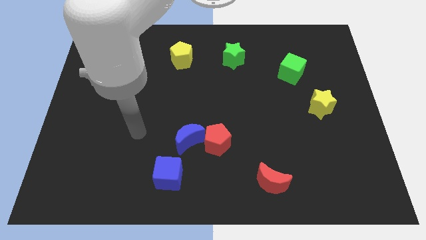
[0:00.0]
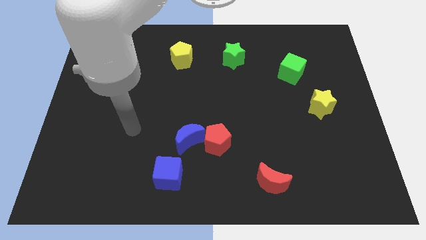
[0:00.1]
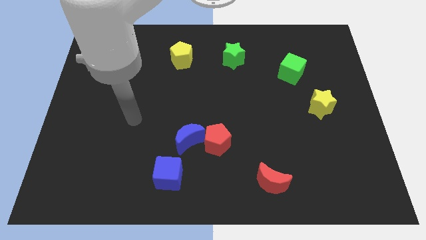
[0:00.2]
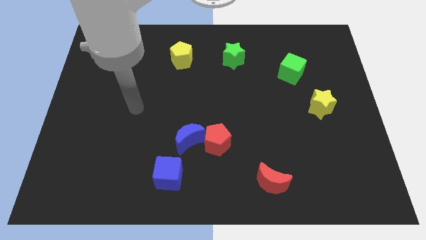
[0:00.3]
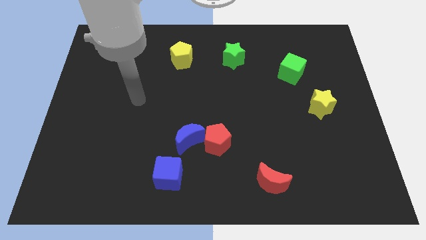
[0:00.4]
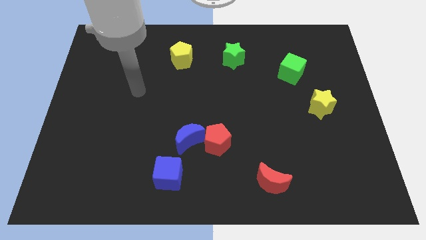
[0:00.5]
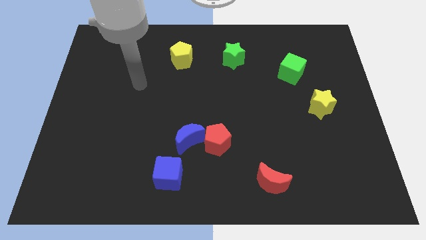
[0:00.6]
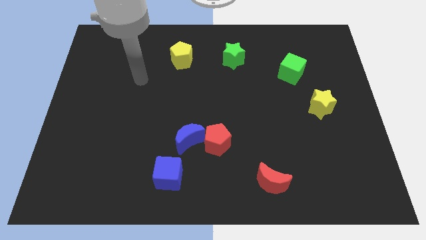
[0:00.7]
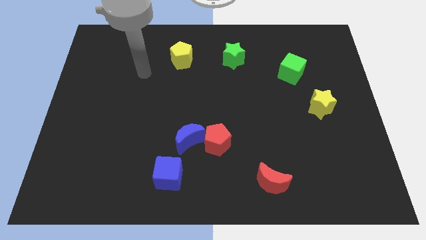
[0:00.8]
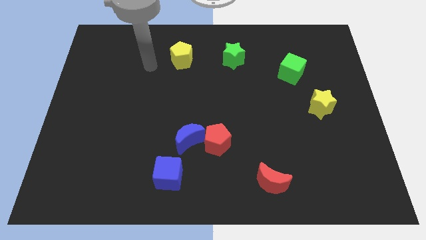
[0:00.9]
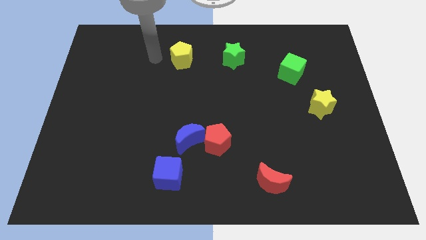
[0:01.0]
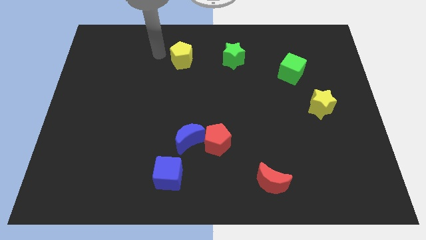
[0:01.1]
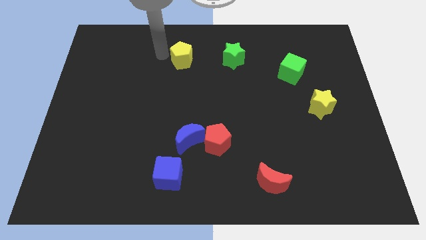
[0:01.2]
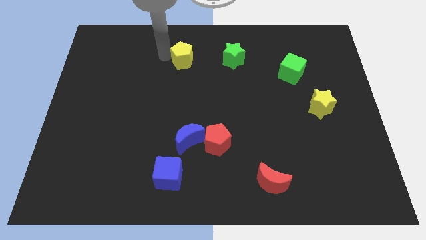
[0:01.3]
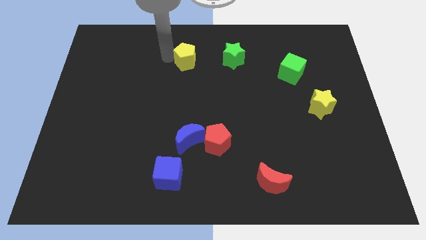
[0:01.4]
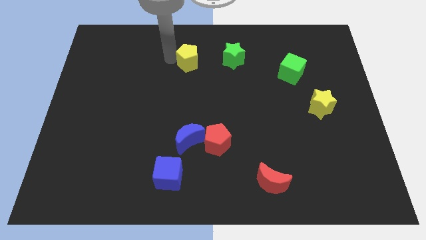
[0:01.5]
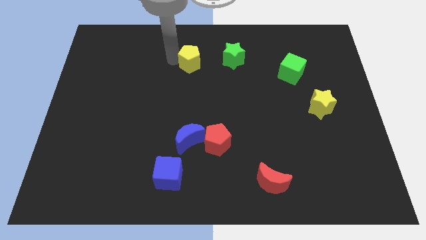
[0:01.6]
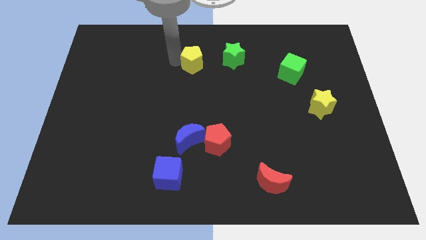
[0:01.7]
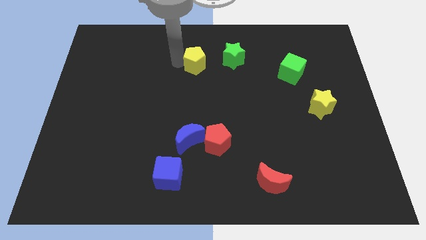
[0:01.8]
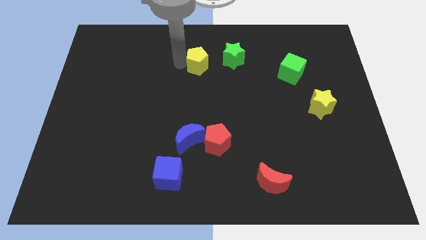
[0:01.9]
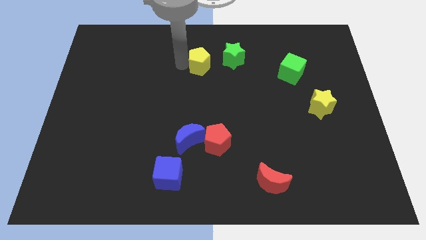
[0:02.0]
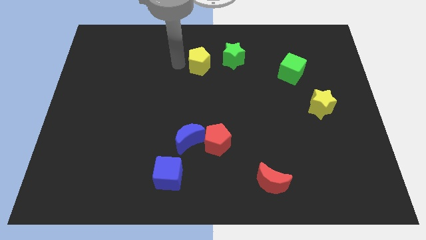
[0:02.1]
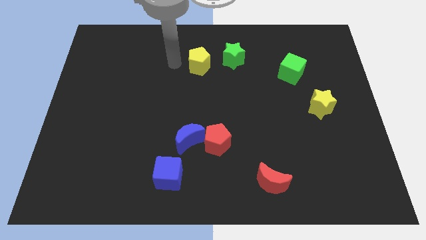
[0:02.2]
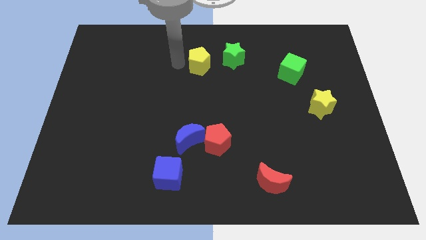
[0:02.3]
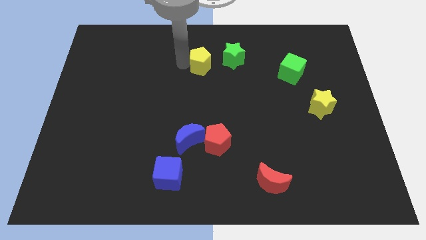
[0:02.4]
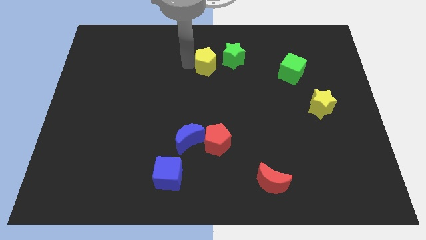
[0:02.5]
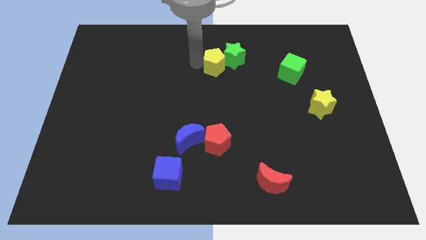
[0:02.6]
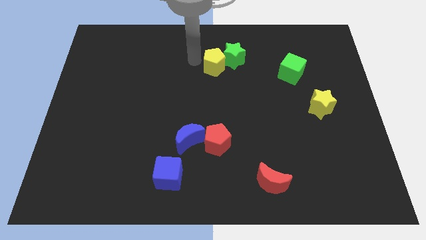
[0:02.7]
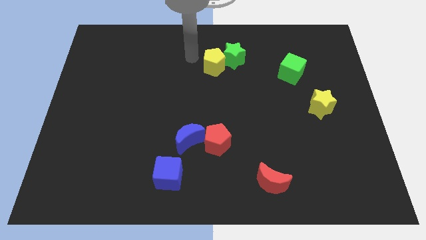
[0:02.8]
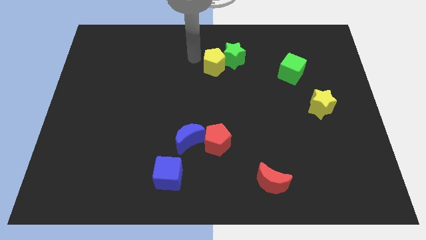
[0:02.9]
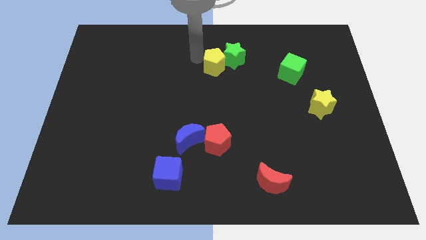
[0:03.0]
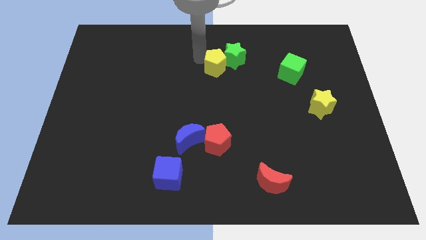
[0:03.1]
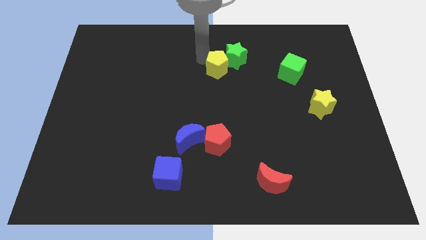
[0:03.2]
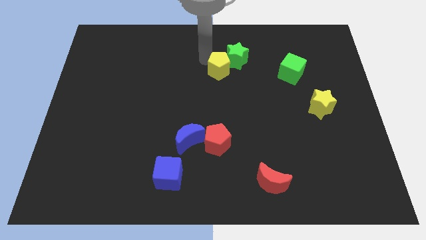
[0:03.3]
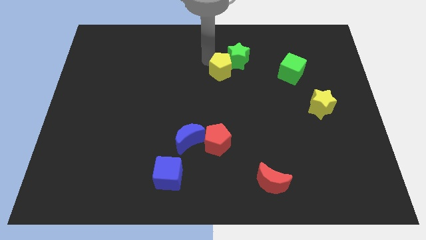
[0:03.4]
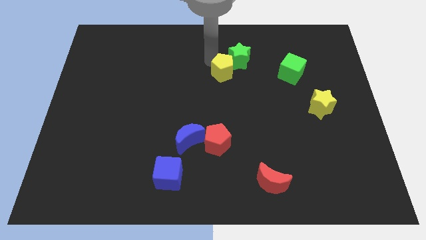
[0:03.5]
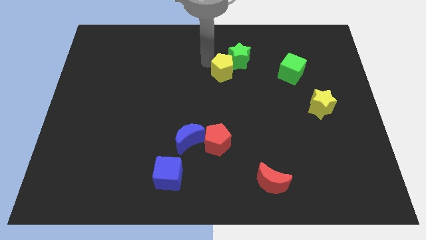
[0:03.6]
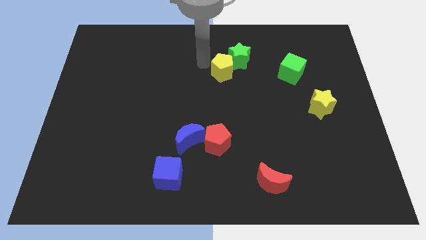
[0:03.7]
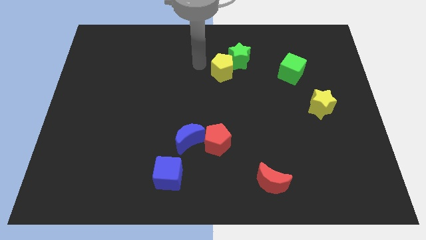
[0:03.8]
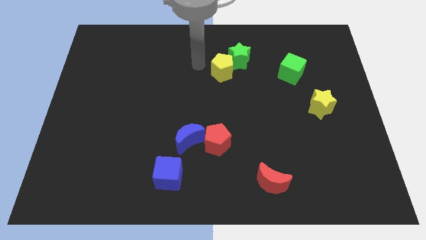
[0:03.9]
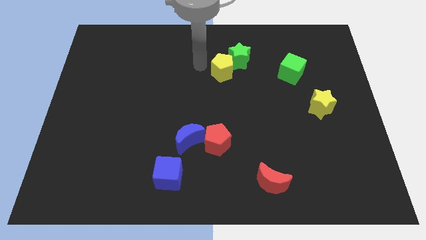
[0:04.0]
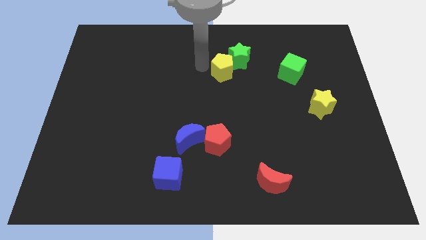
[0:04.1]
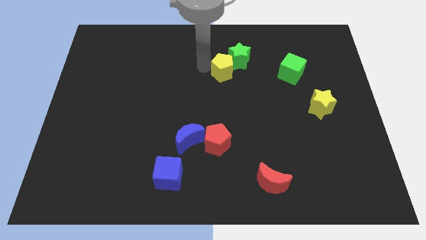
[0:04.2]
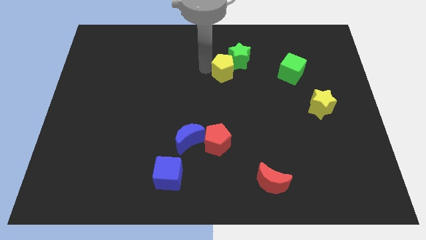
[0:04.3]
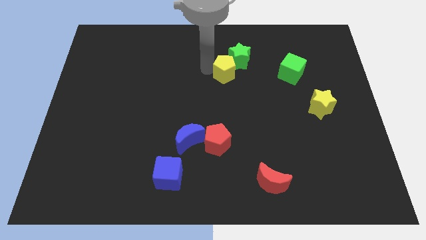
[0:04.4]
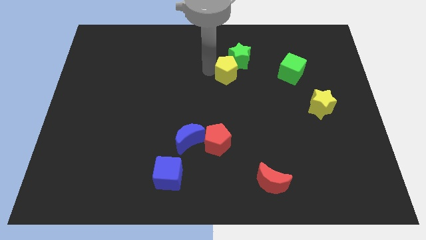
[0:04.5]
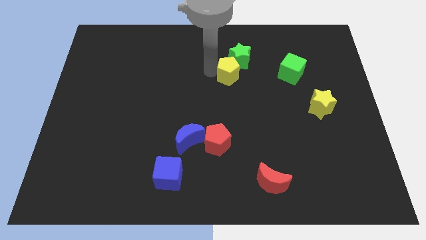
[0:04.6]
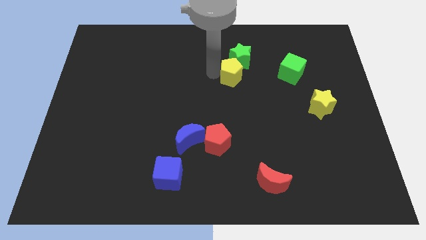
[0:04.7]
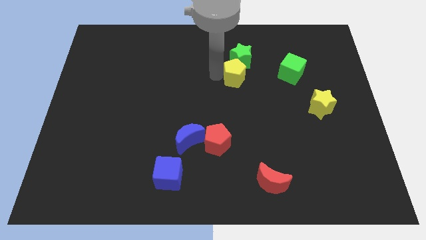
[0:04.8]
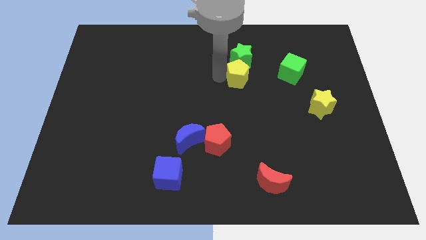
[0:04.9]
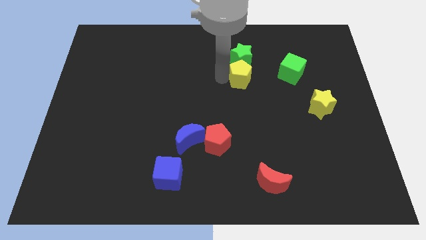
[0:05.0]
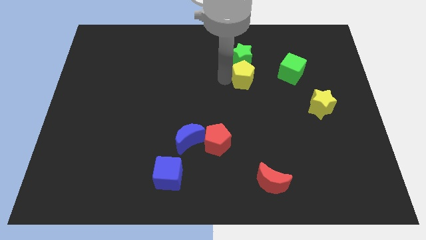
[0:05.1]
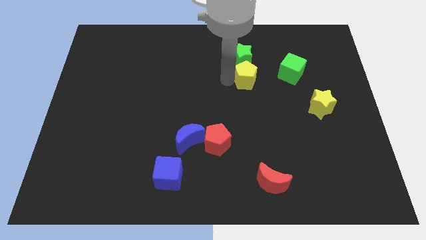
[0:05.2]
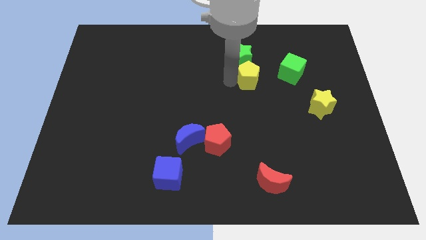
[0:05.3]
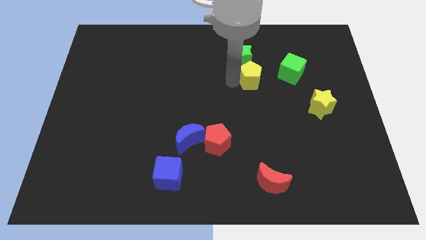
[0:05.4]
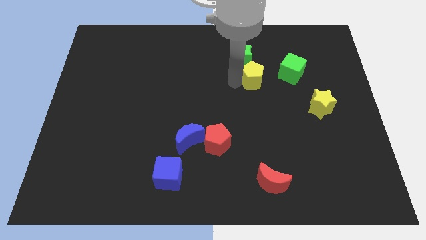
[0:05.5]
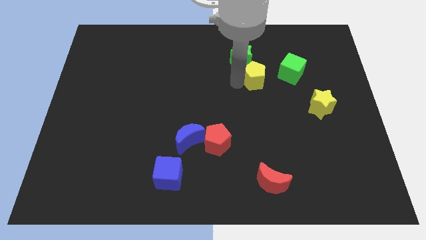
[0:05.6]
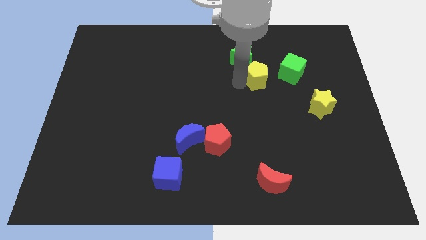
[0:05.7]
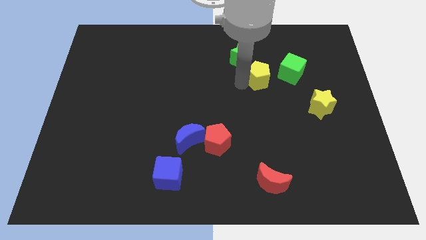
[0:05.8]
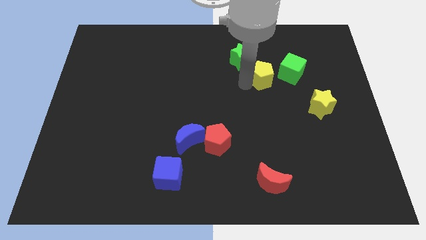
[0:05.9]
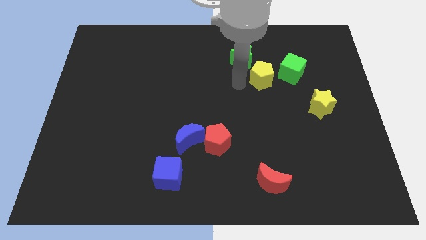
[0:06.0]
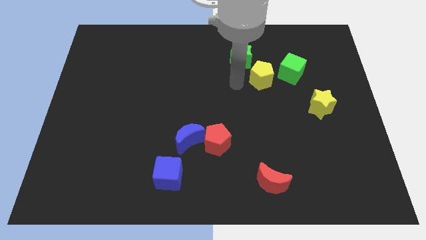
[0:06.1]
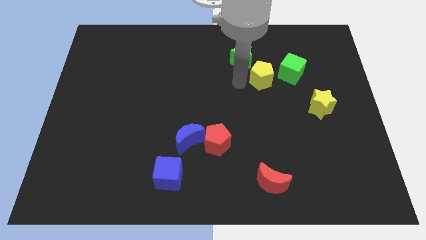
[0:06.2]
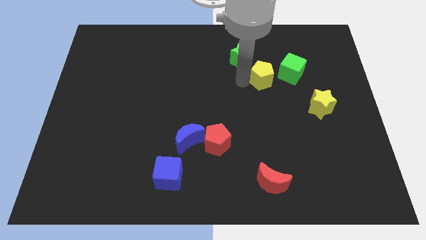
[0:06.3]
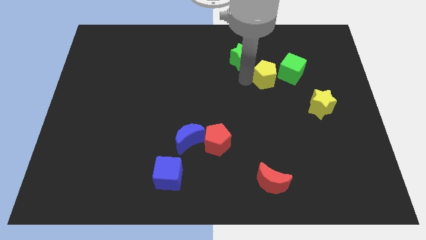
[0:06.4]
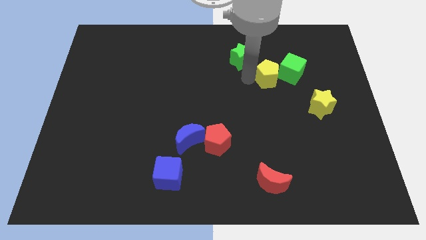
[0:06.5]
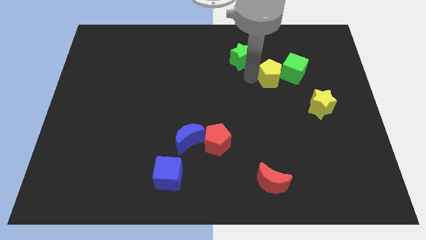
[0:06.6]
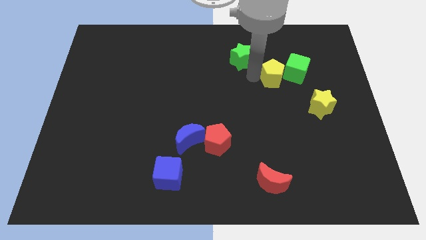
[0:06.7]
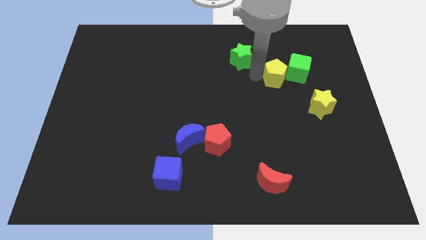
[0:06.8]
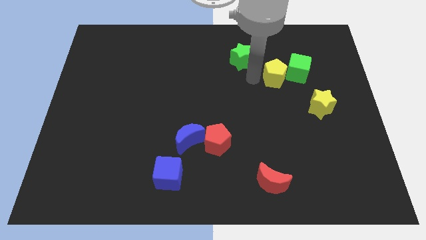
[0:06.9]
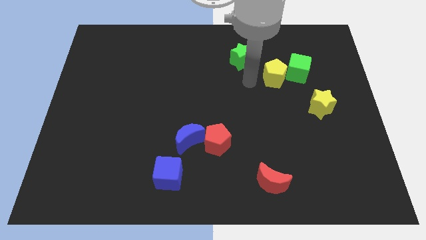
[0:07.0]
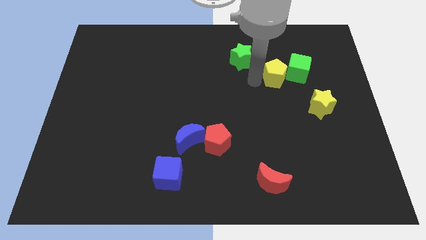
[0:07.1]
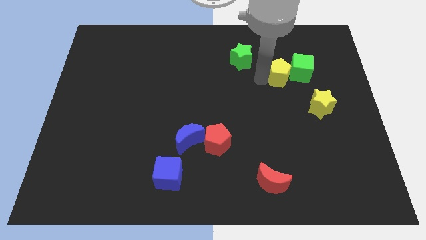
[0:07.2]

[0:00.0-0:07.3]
move the yellow pentagon towards the green cube

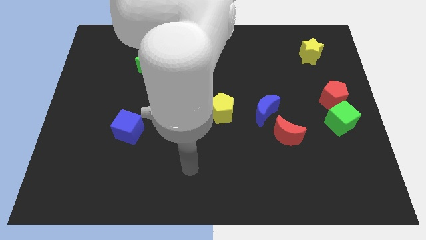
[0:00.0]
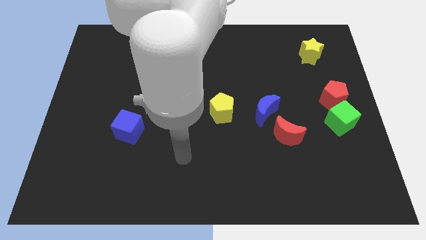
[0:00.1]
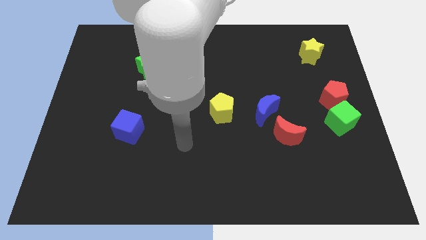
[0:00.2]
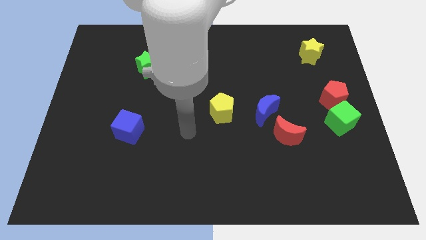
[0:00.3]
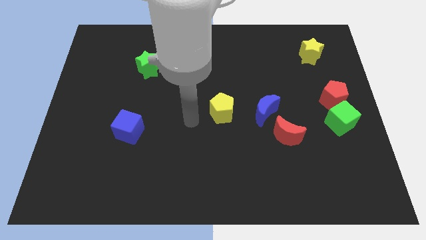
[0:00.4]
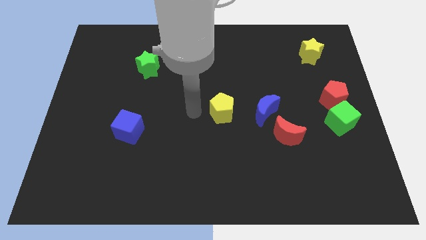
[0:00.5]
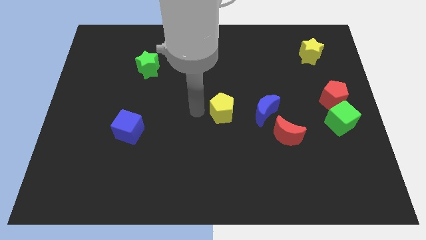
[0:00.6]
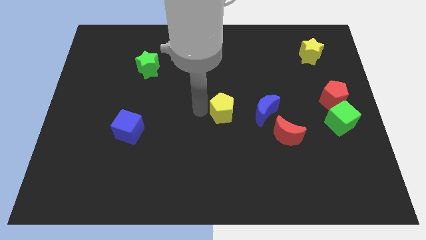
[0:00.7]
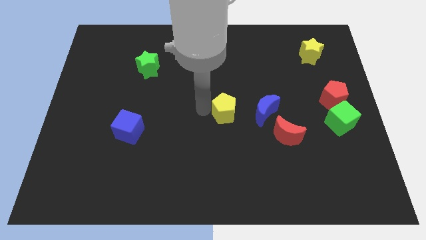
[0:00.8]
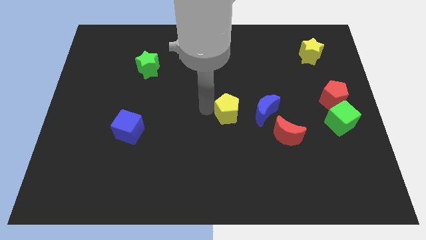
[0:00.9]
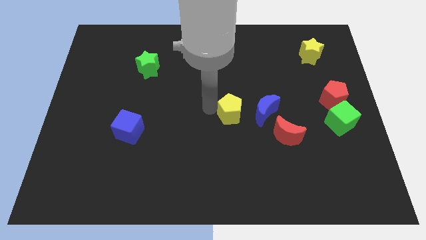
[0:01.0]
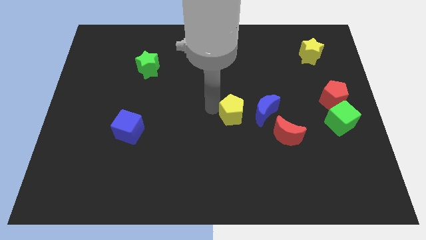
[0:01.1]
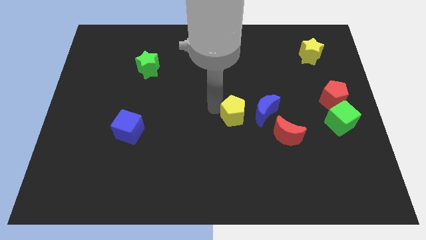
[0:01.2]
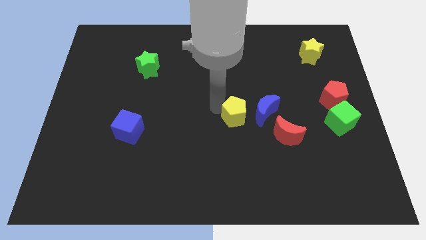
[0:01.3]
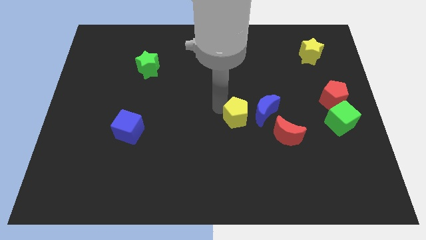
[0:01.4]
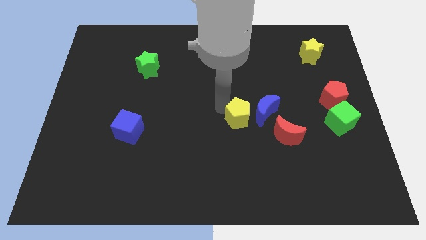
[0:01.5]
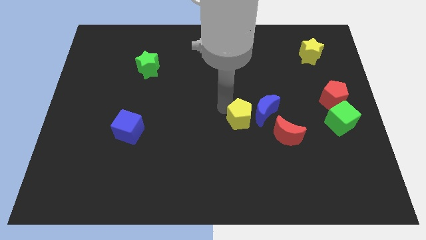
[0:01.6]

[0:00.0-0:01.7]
slide the yellow pentagon close to the blue moon
